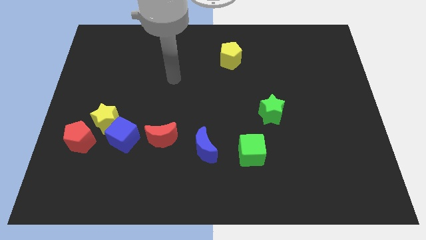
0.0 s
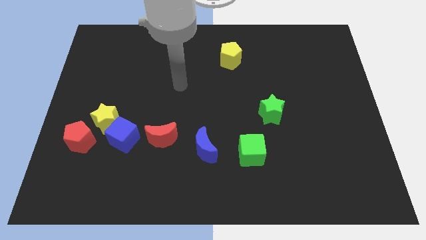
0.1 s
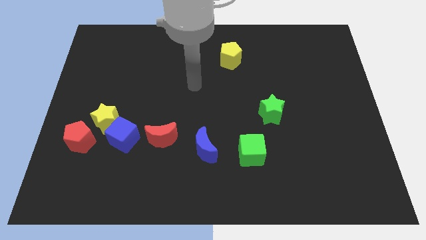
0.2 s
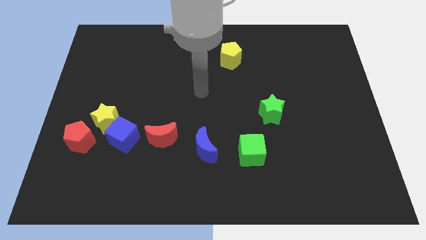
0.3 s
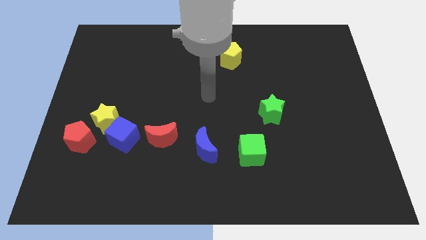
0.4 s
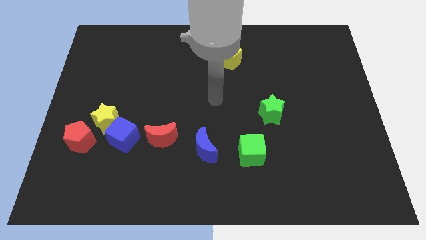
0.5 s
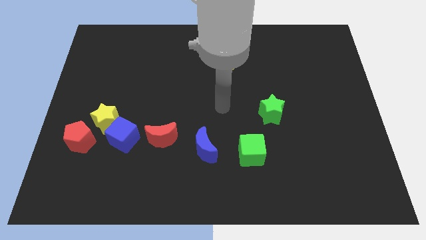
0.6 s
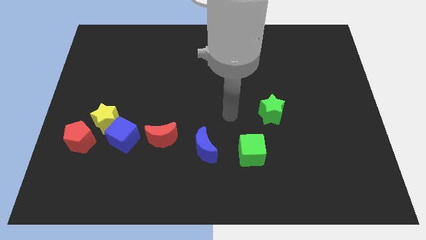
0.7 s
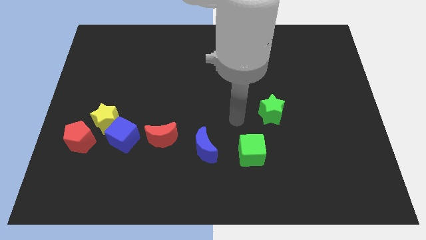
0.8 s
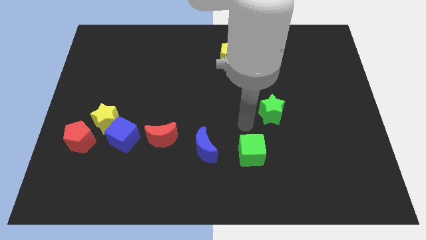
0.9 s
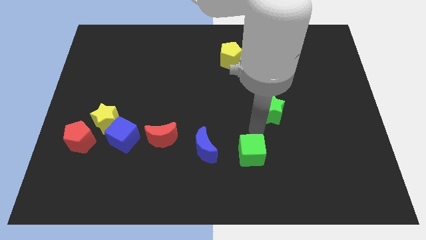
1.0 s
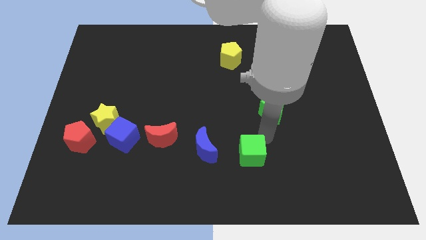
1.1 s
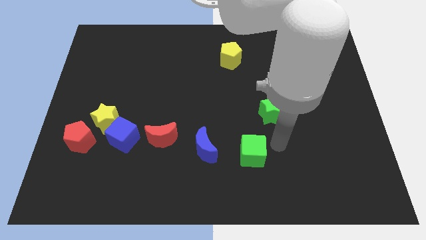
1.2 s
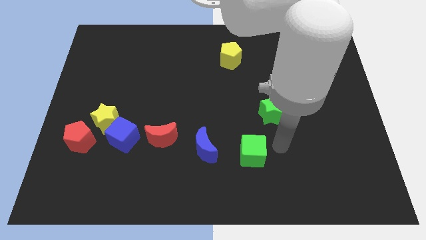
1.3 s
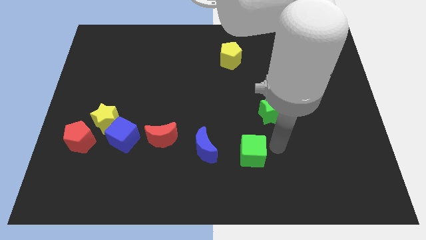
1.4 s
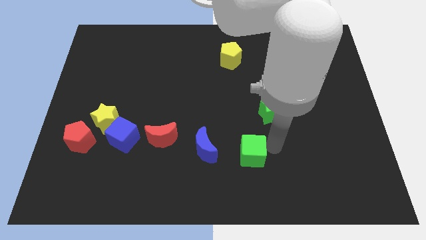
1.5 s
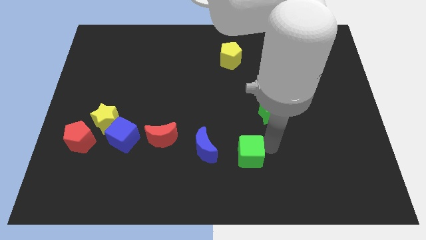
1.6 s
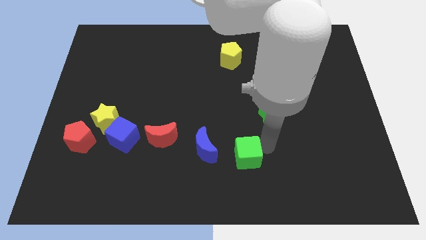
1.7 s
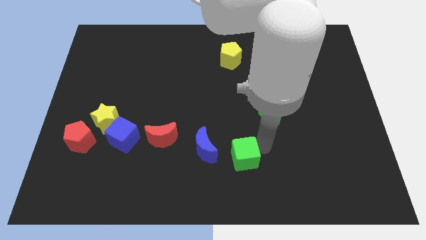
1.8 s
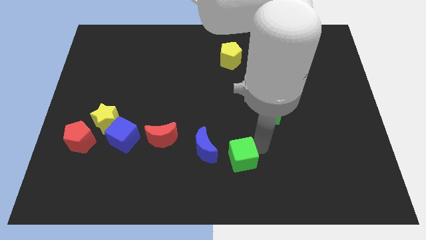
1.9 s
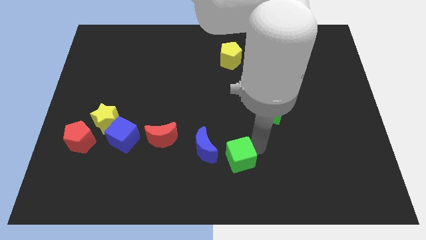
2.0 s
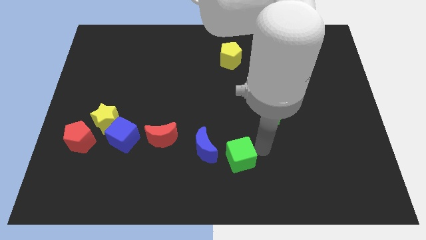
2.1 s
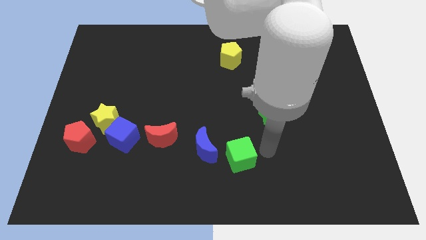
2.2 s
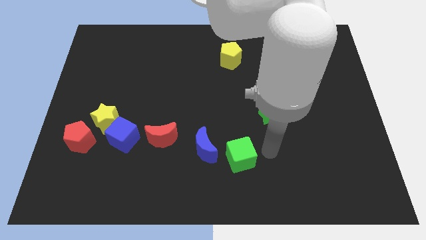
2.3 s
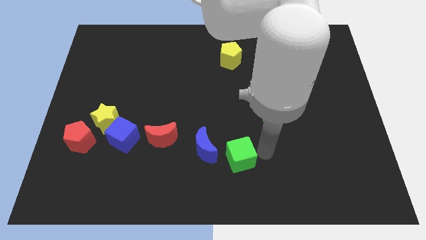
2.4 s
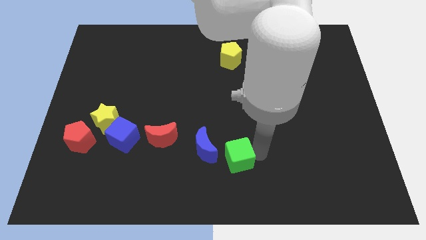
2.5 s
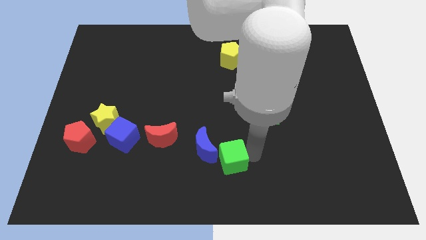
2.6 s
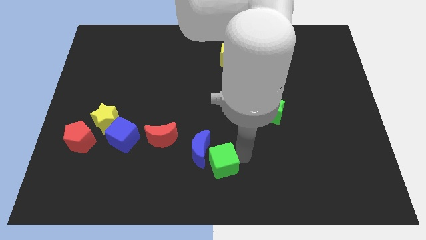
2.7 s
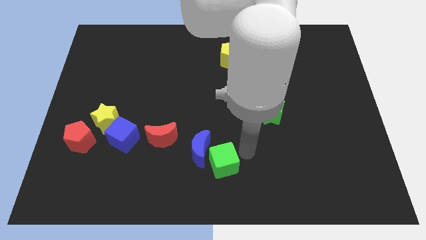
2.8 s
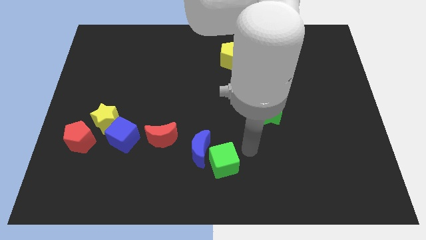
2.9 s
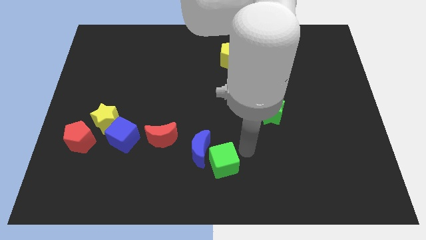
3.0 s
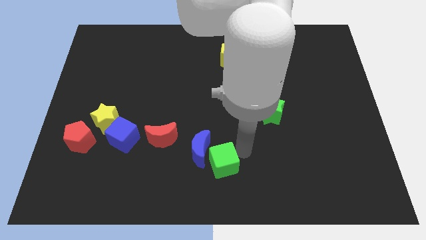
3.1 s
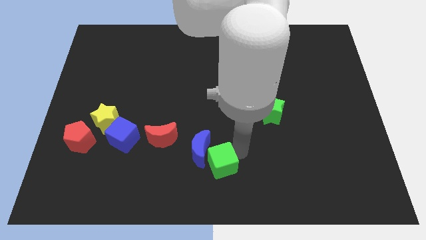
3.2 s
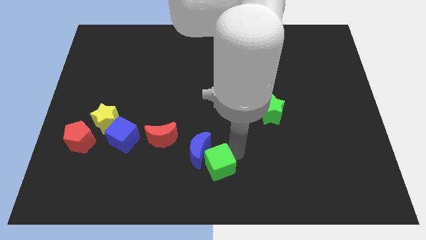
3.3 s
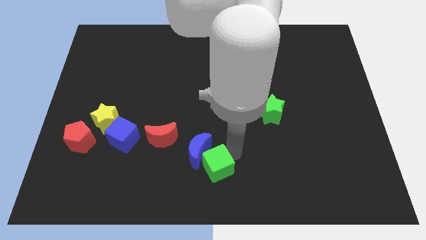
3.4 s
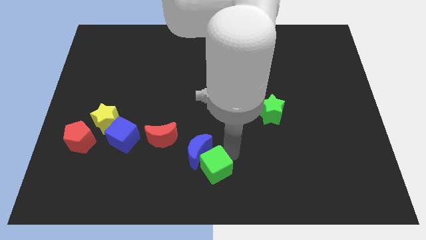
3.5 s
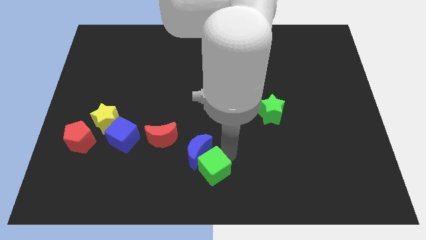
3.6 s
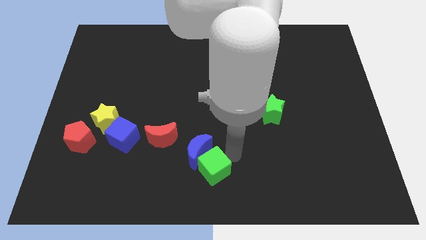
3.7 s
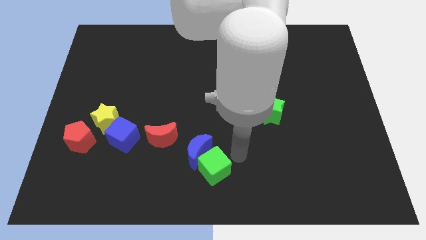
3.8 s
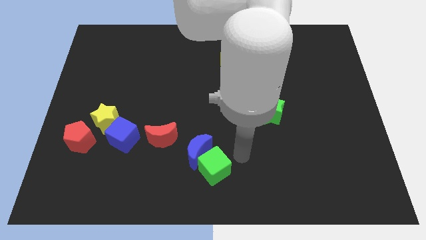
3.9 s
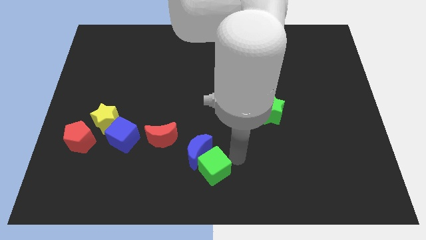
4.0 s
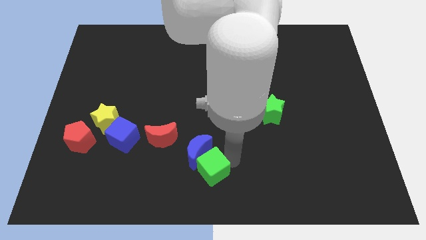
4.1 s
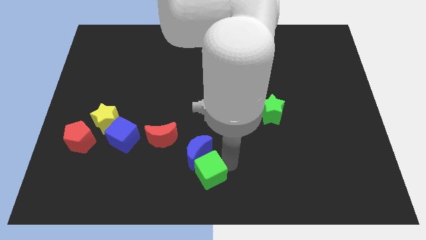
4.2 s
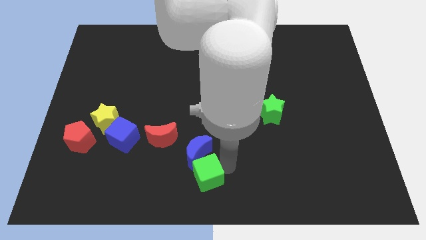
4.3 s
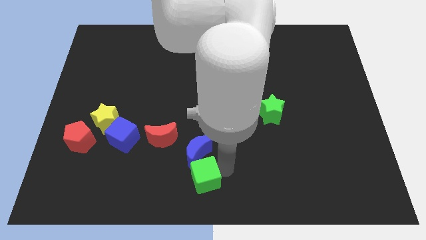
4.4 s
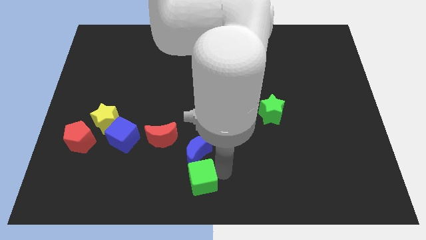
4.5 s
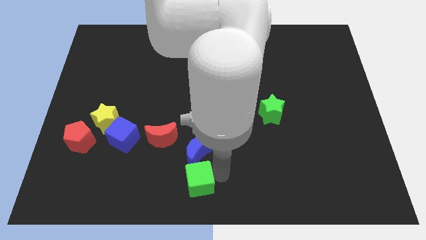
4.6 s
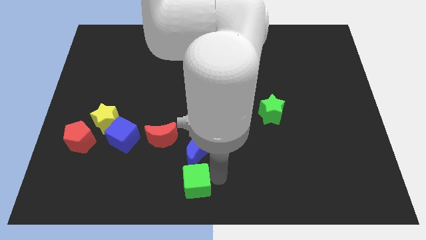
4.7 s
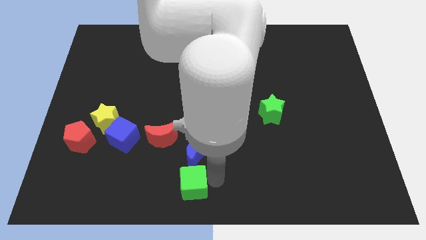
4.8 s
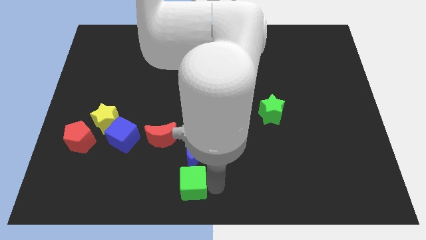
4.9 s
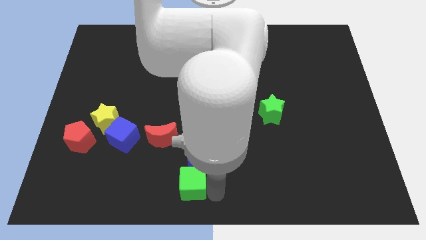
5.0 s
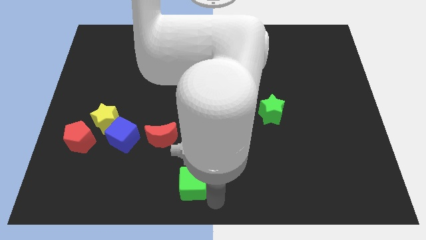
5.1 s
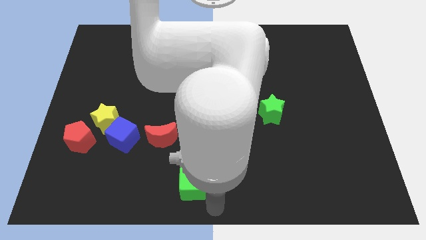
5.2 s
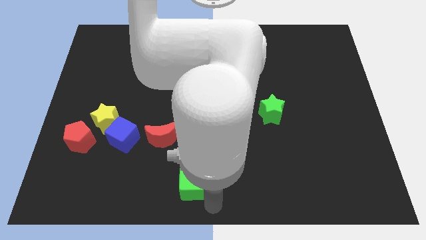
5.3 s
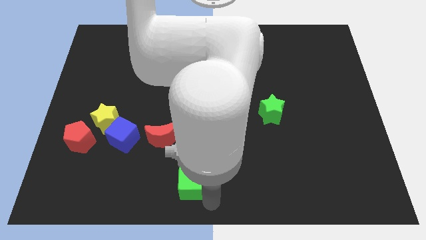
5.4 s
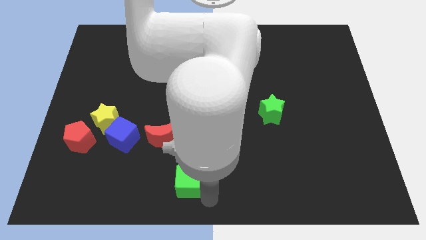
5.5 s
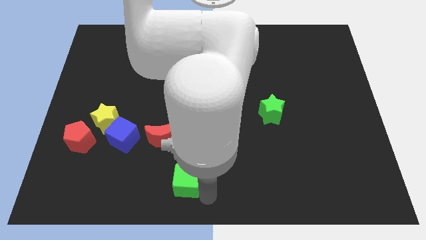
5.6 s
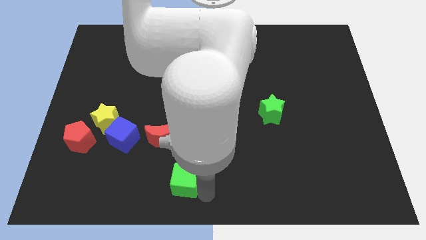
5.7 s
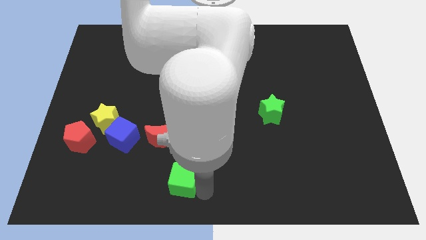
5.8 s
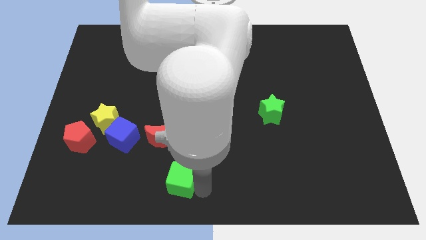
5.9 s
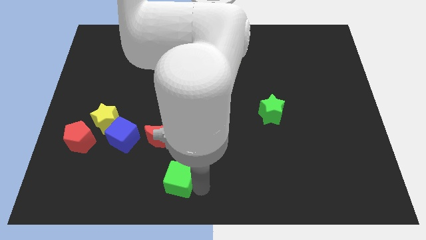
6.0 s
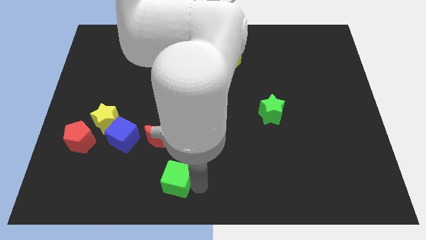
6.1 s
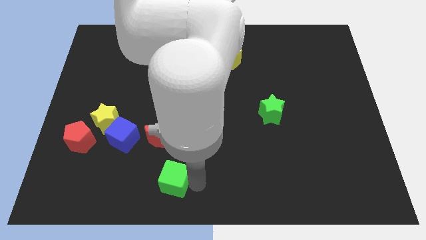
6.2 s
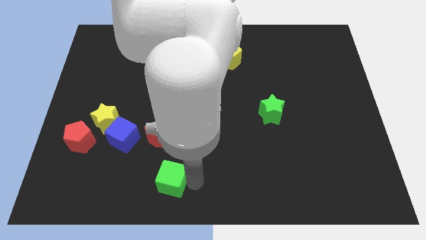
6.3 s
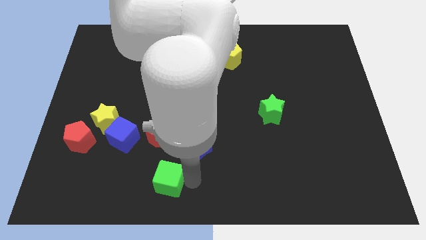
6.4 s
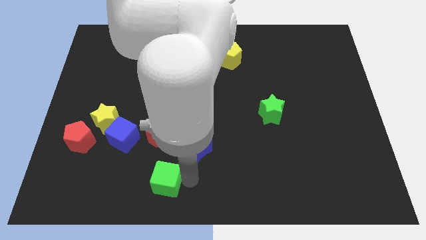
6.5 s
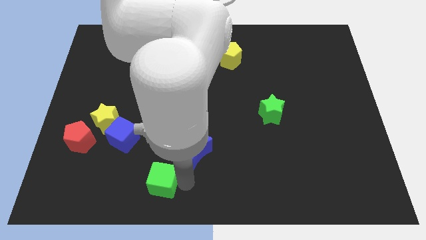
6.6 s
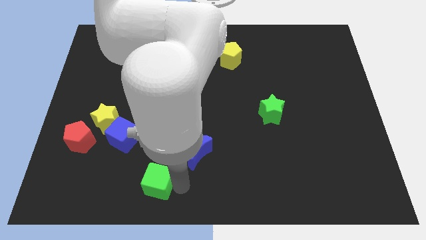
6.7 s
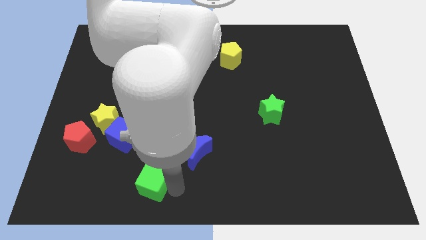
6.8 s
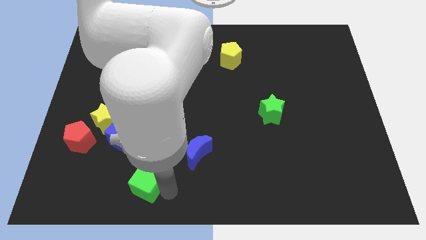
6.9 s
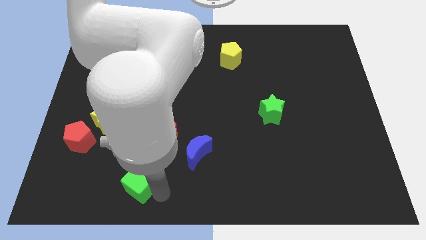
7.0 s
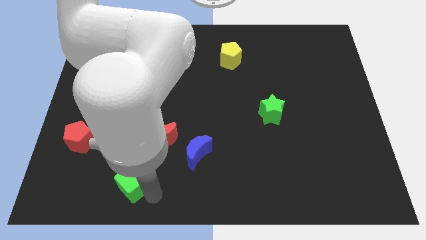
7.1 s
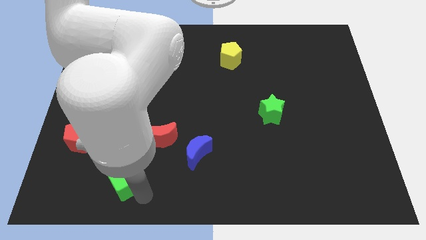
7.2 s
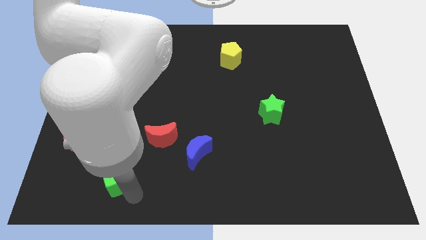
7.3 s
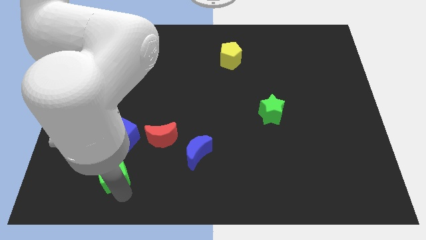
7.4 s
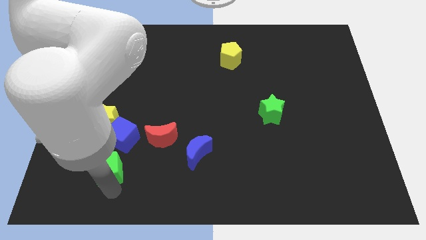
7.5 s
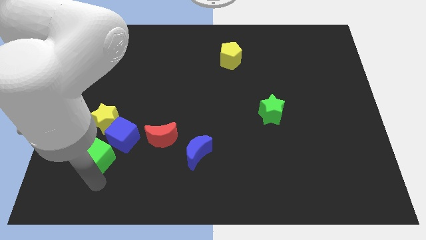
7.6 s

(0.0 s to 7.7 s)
push the green cube towards the red pentagon
